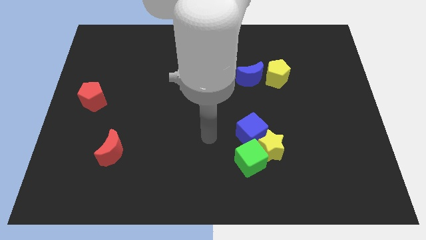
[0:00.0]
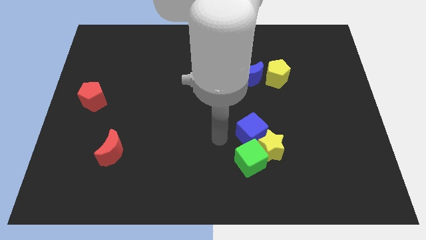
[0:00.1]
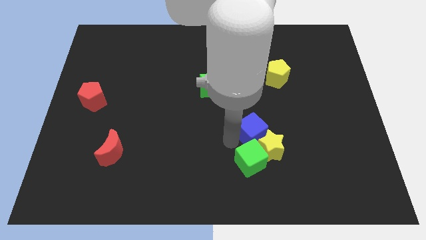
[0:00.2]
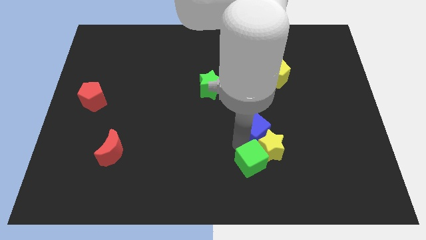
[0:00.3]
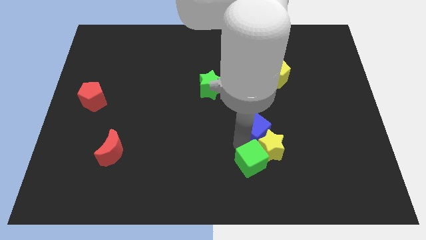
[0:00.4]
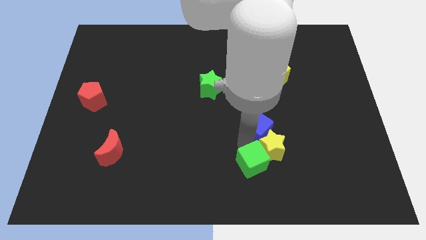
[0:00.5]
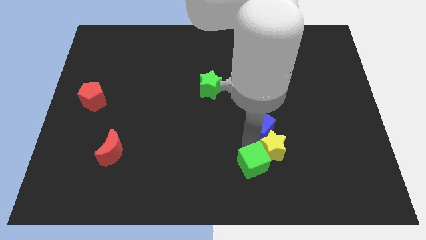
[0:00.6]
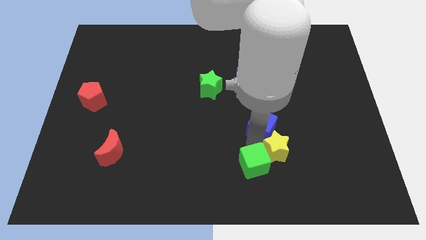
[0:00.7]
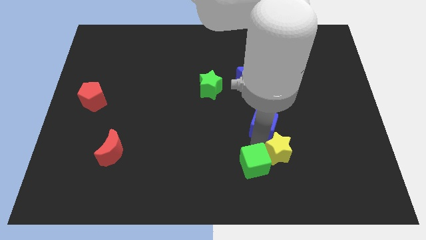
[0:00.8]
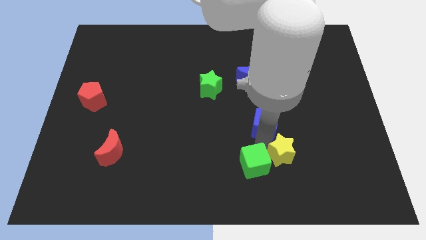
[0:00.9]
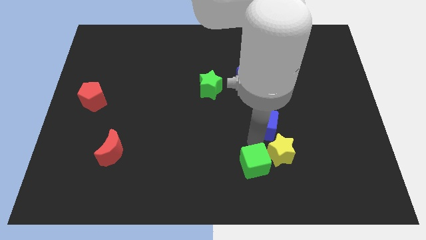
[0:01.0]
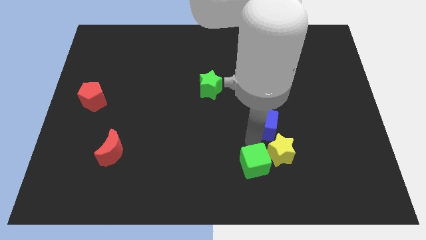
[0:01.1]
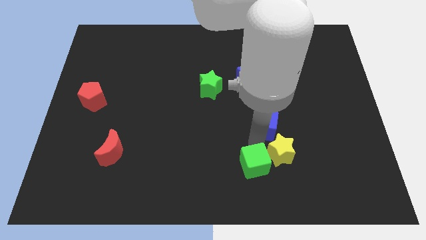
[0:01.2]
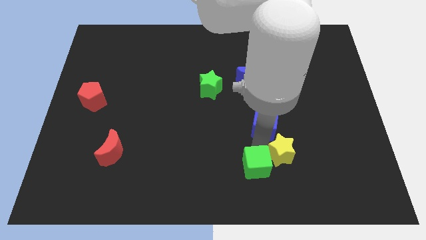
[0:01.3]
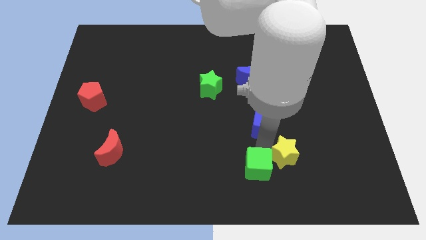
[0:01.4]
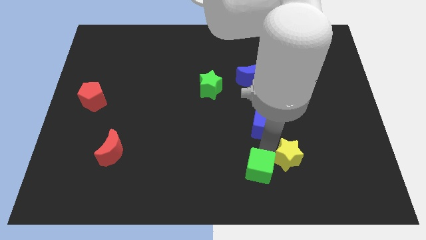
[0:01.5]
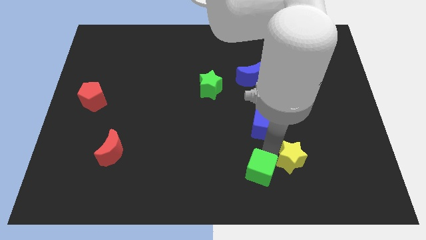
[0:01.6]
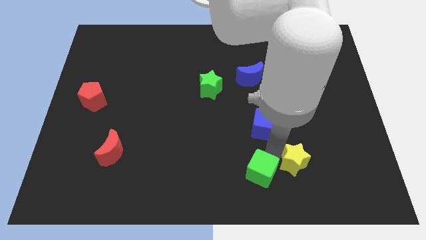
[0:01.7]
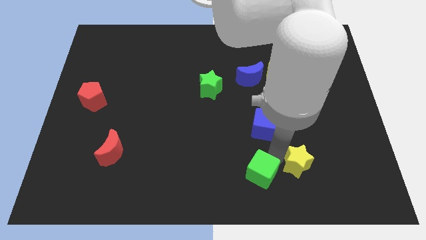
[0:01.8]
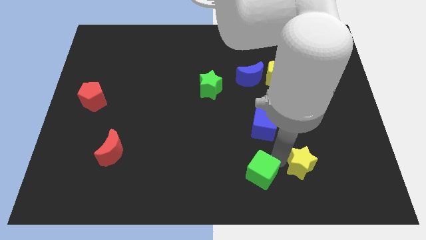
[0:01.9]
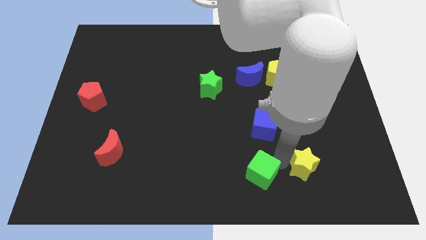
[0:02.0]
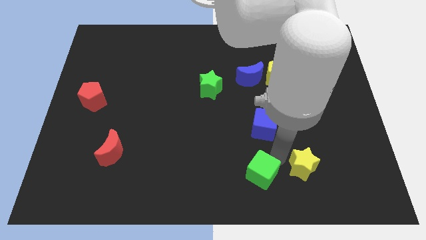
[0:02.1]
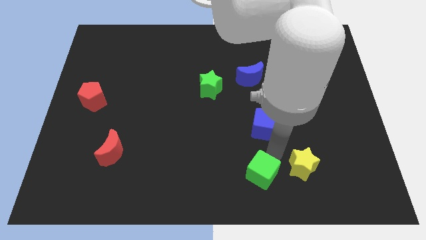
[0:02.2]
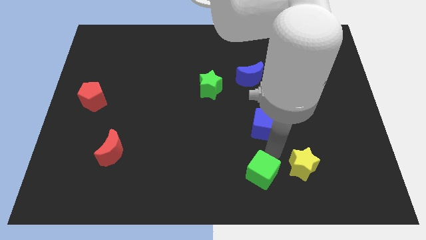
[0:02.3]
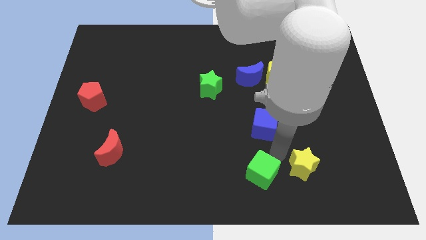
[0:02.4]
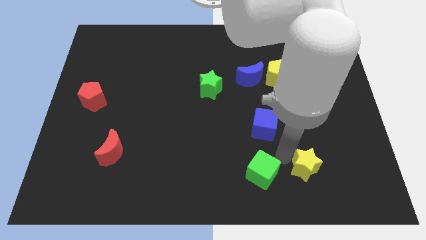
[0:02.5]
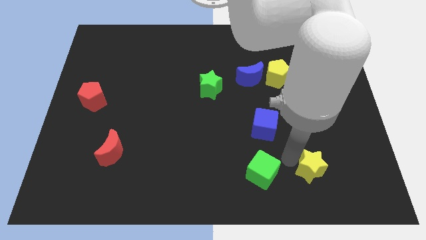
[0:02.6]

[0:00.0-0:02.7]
move the yellow star away from the green cube and blue cube

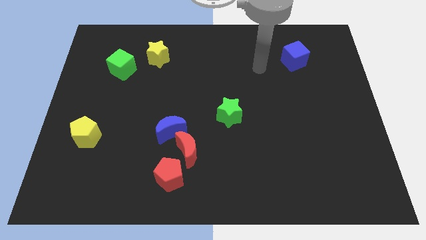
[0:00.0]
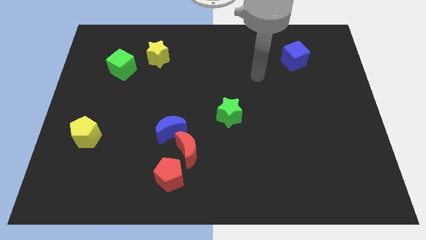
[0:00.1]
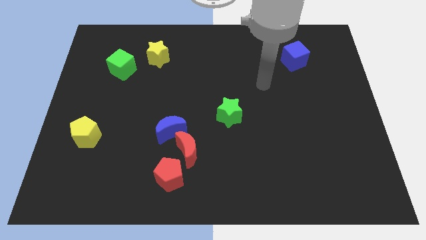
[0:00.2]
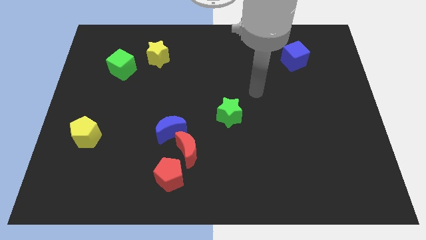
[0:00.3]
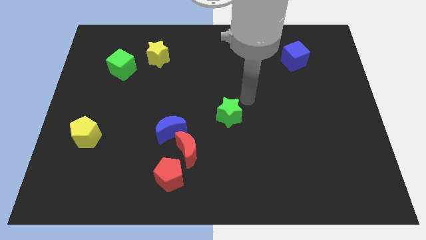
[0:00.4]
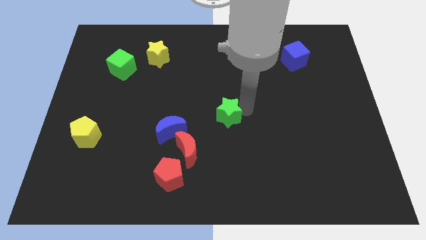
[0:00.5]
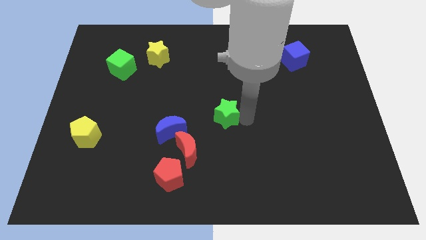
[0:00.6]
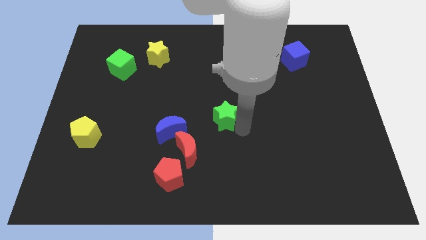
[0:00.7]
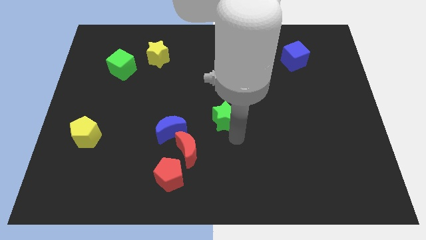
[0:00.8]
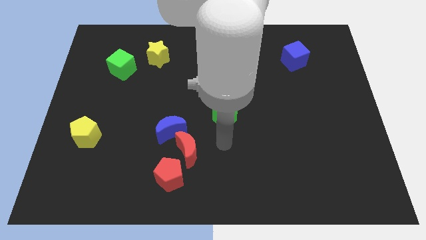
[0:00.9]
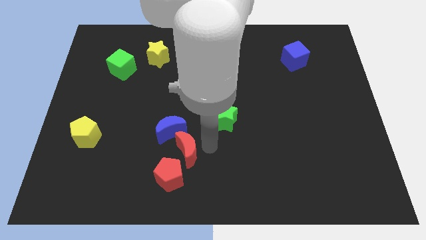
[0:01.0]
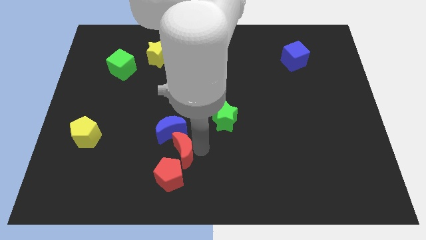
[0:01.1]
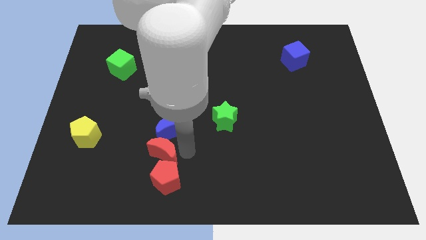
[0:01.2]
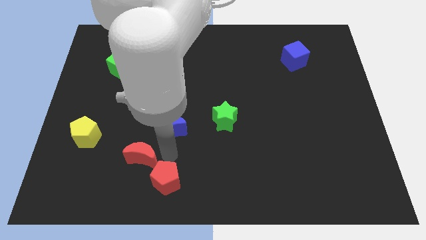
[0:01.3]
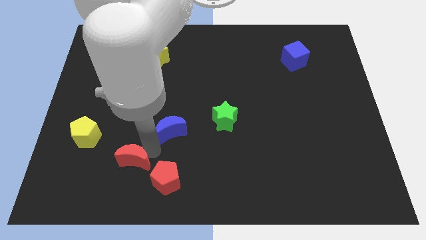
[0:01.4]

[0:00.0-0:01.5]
separate the blue moon from the red moon

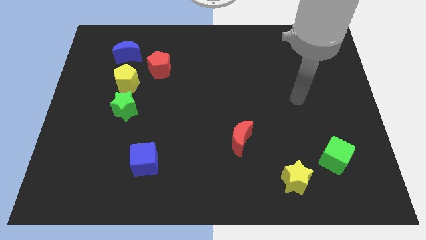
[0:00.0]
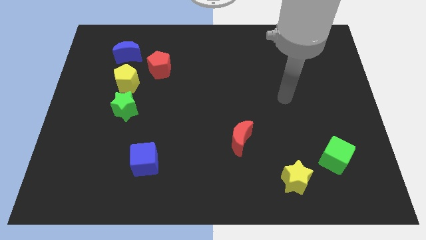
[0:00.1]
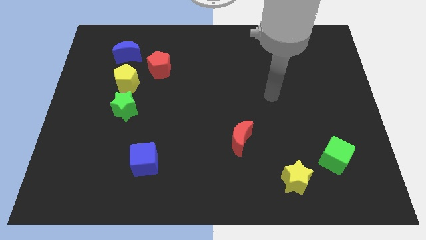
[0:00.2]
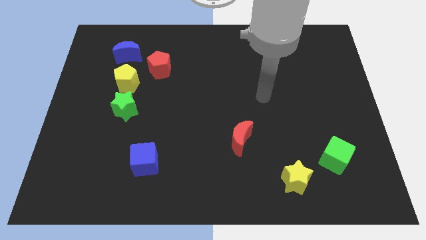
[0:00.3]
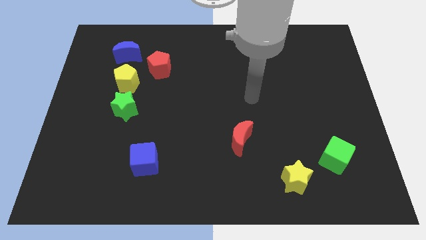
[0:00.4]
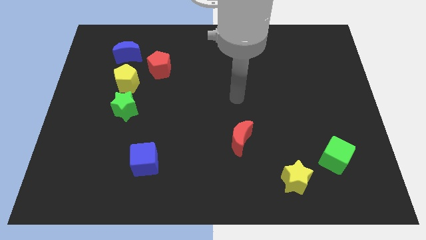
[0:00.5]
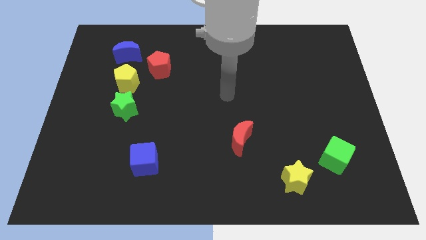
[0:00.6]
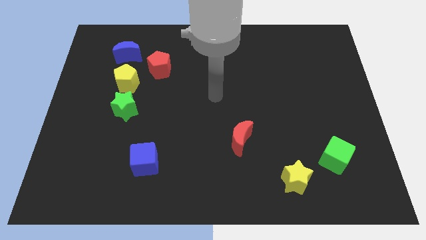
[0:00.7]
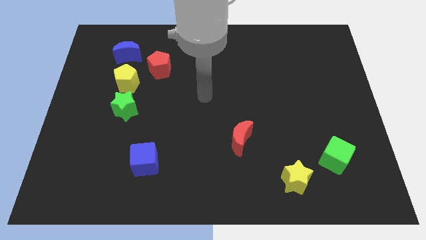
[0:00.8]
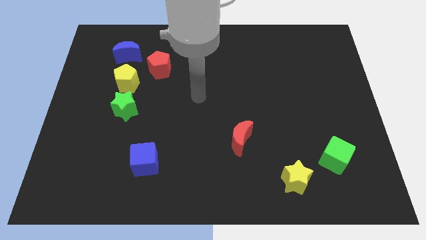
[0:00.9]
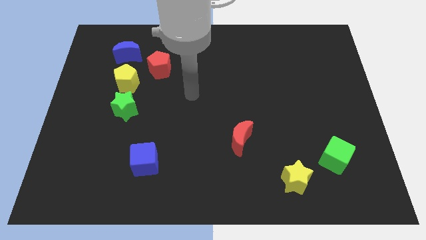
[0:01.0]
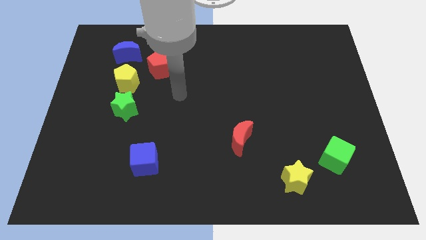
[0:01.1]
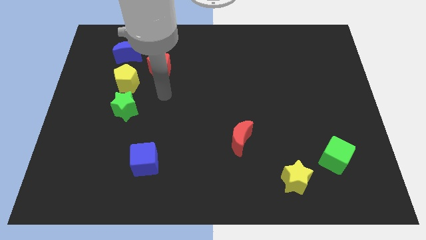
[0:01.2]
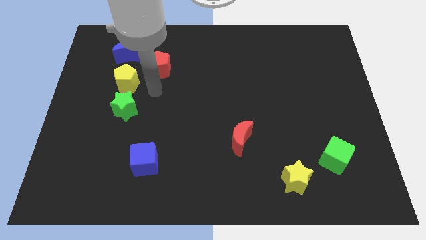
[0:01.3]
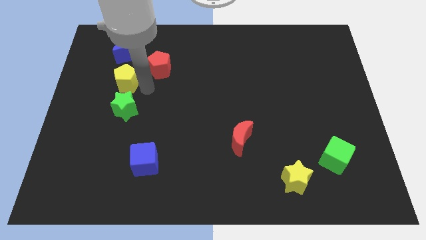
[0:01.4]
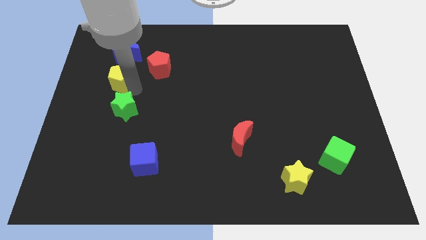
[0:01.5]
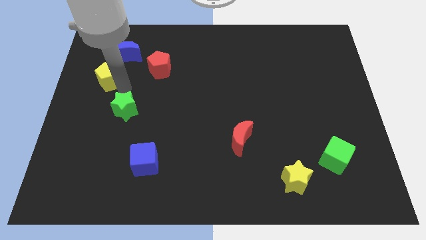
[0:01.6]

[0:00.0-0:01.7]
pull the green star apart from the yellow pentagon

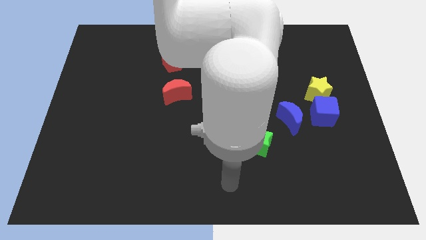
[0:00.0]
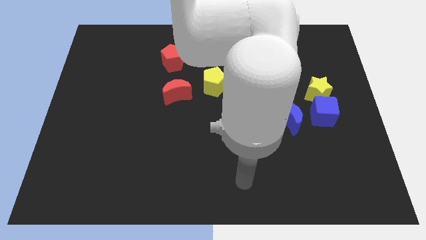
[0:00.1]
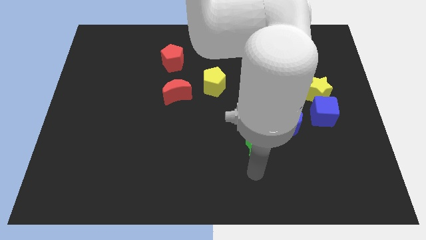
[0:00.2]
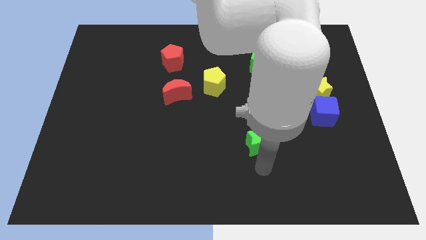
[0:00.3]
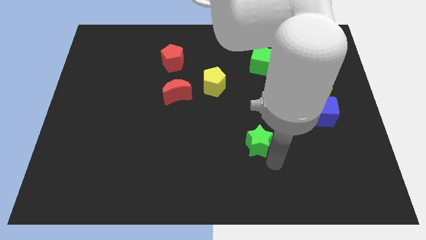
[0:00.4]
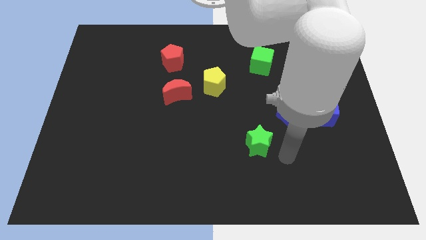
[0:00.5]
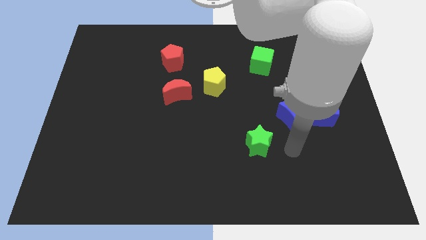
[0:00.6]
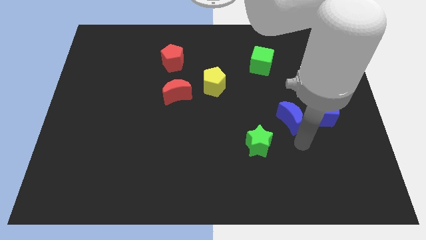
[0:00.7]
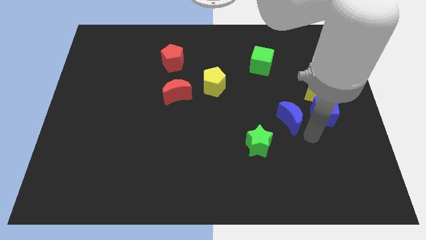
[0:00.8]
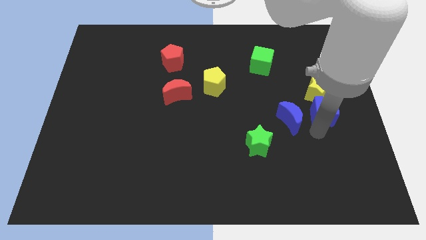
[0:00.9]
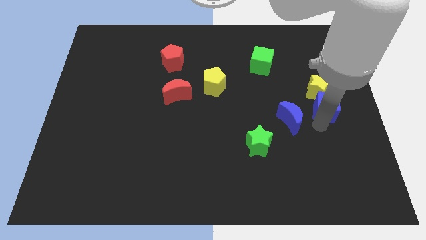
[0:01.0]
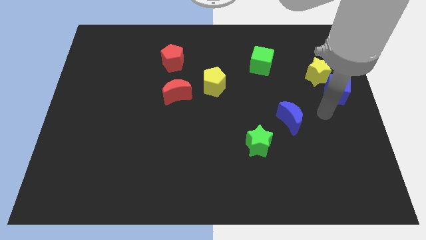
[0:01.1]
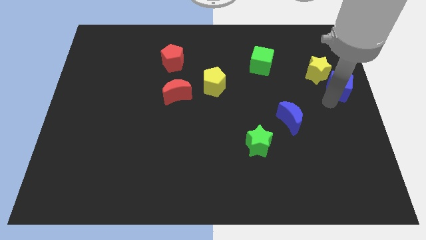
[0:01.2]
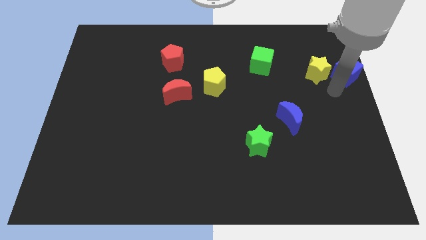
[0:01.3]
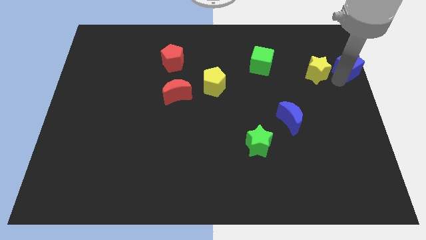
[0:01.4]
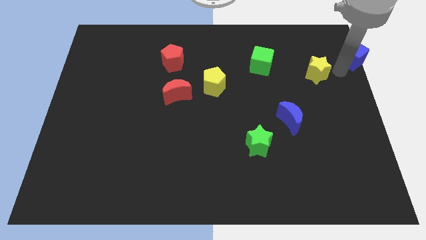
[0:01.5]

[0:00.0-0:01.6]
move the yellow star away from the blue cube

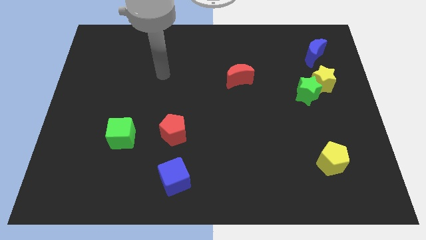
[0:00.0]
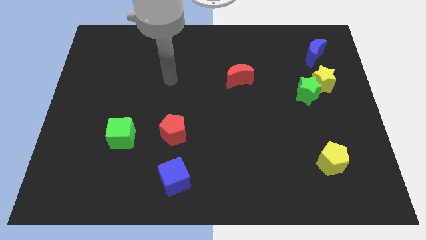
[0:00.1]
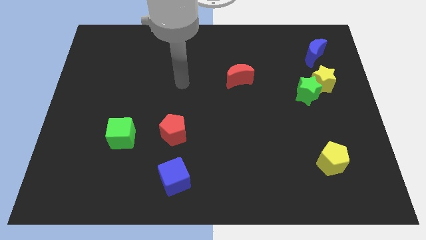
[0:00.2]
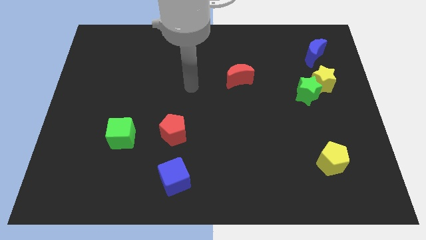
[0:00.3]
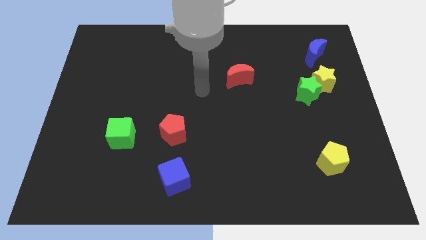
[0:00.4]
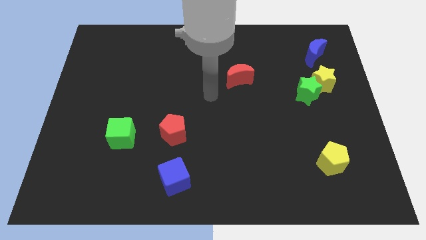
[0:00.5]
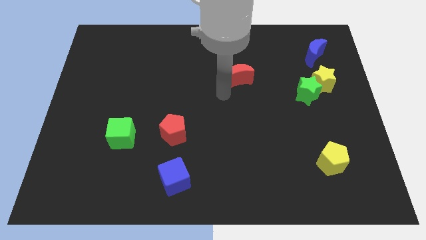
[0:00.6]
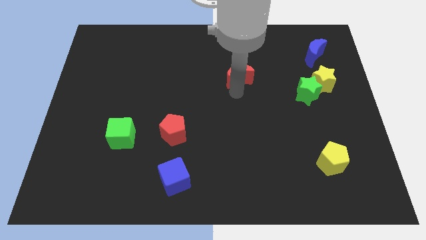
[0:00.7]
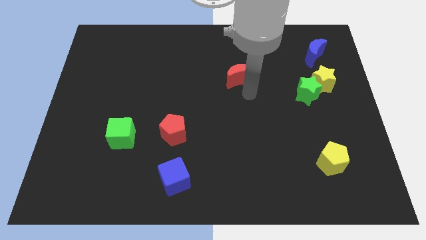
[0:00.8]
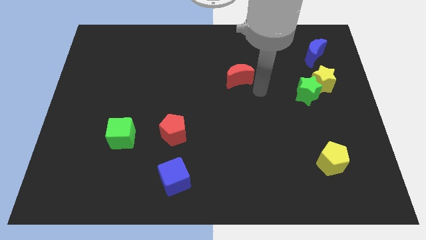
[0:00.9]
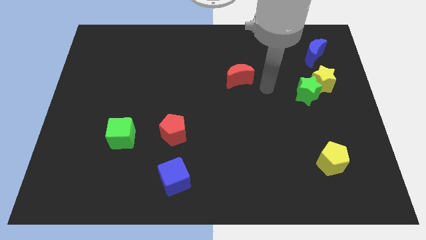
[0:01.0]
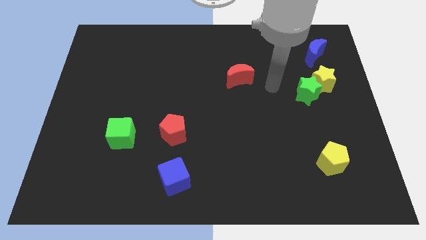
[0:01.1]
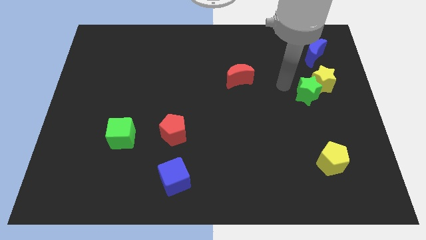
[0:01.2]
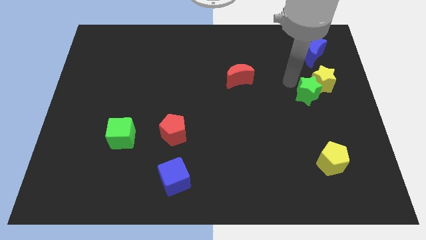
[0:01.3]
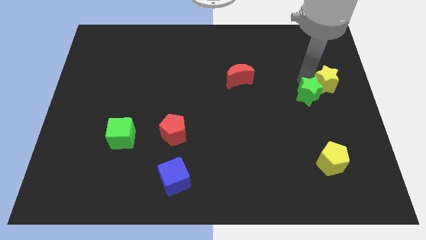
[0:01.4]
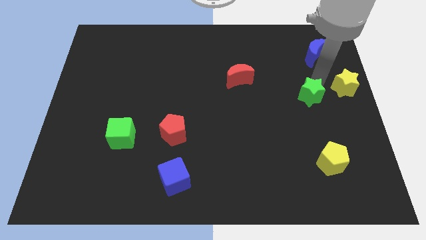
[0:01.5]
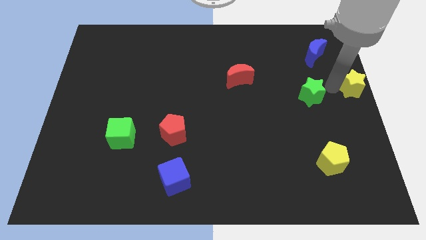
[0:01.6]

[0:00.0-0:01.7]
pull the green star apart from the yellow star

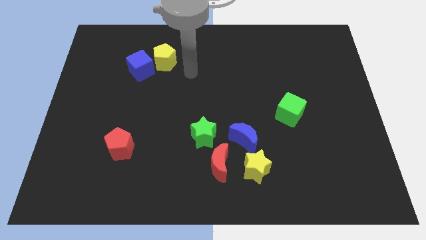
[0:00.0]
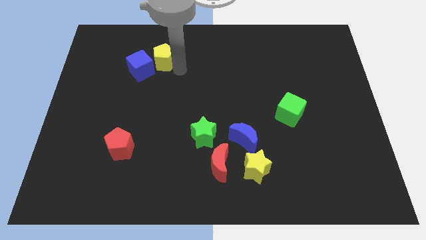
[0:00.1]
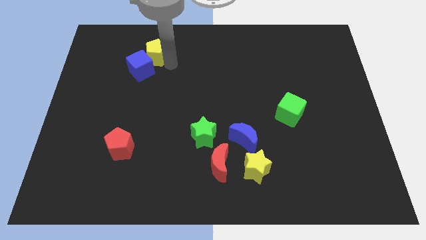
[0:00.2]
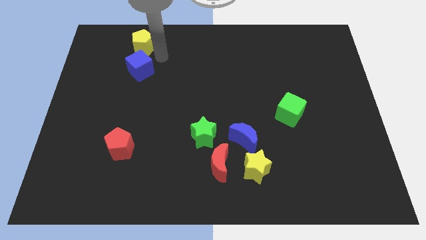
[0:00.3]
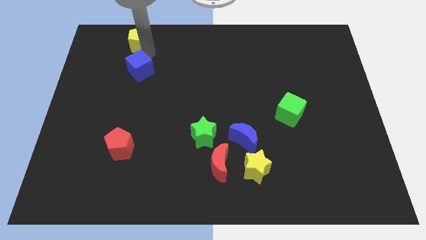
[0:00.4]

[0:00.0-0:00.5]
move the blue cube away from the yellow pentagon
